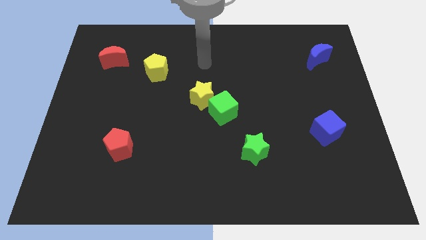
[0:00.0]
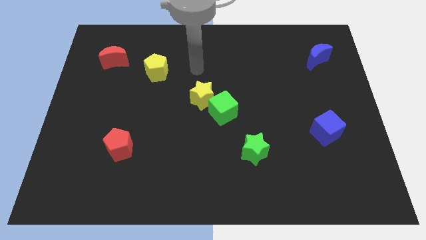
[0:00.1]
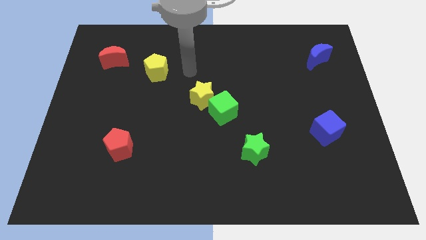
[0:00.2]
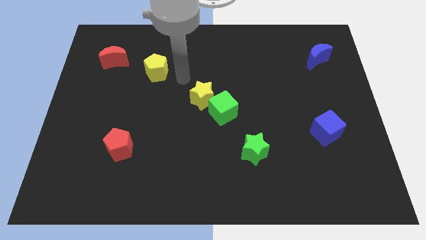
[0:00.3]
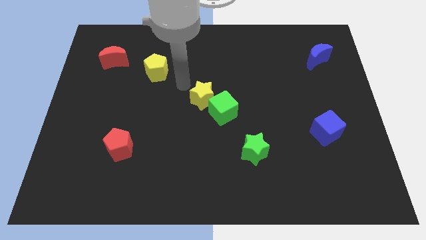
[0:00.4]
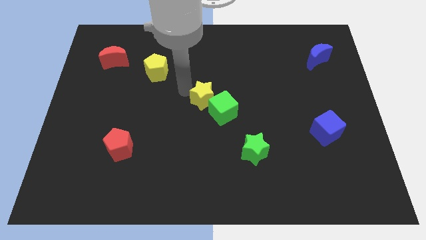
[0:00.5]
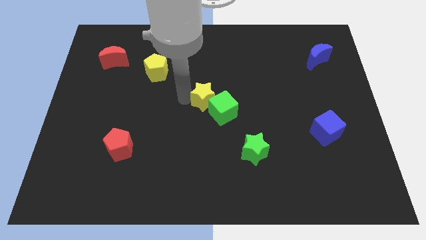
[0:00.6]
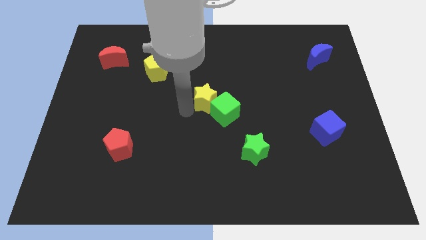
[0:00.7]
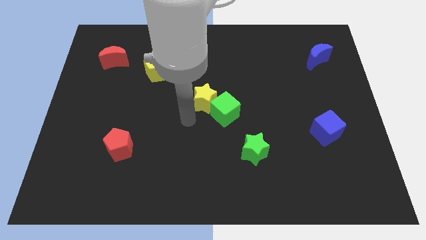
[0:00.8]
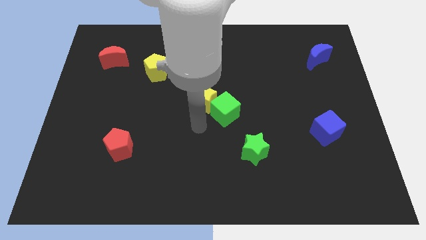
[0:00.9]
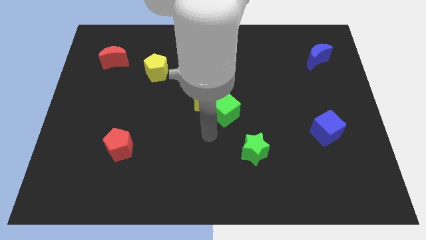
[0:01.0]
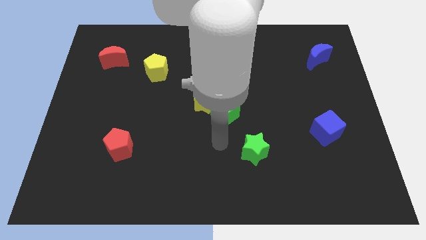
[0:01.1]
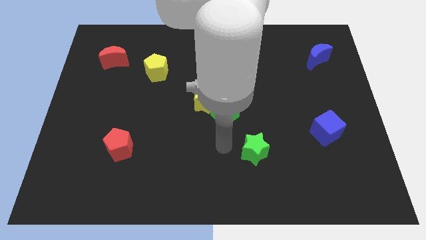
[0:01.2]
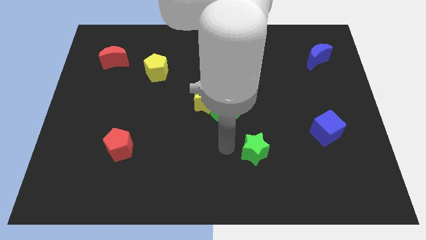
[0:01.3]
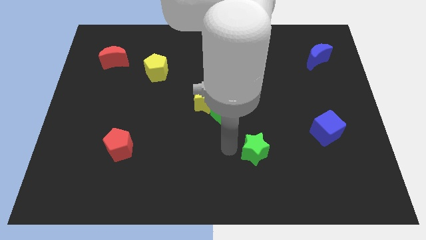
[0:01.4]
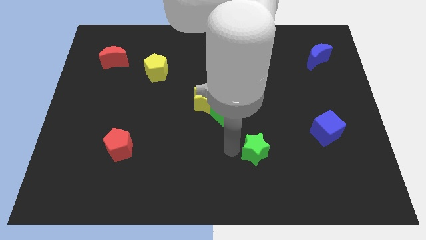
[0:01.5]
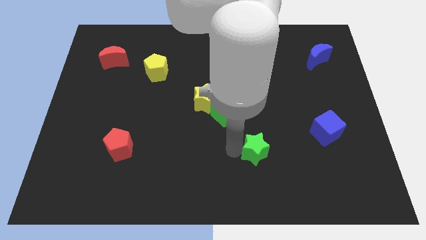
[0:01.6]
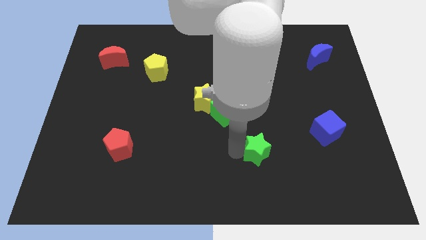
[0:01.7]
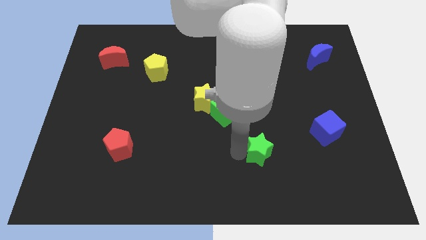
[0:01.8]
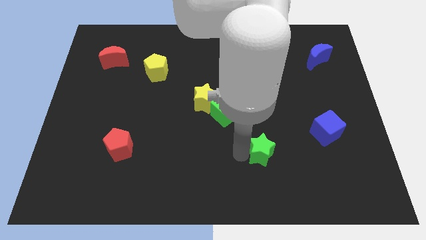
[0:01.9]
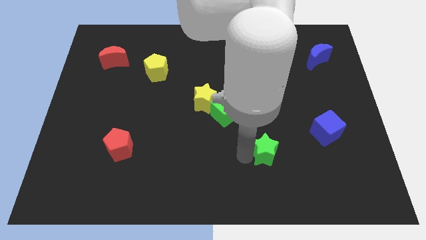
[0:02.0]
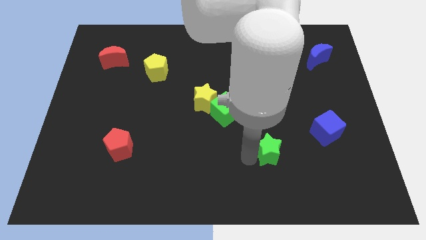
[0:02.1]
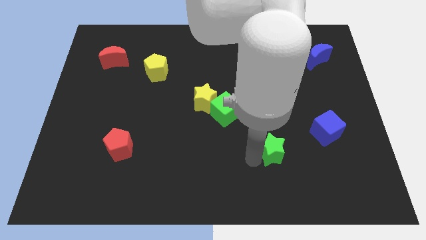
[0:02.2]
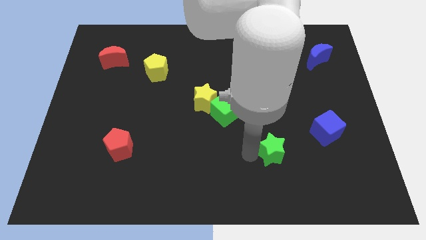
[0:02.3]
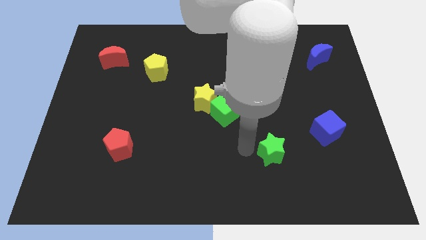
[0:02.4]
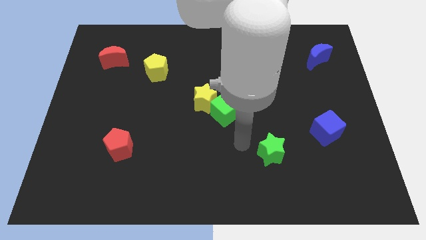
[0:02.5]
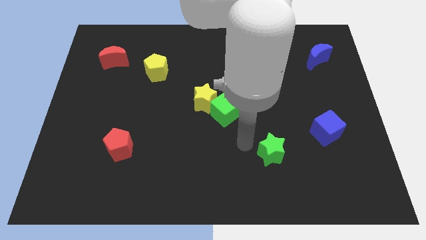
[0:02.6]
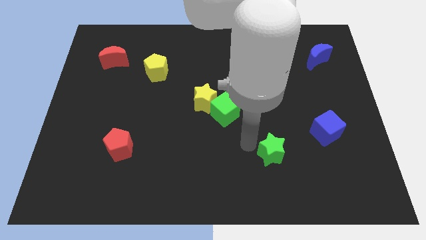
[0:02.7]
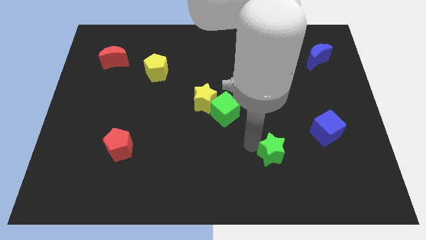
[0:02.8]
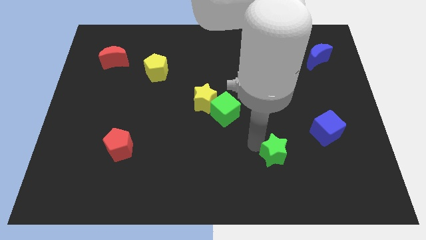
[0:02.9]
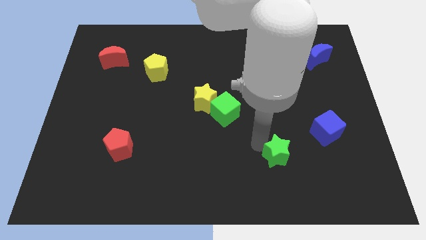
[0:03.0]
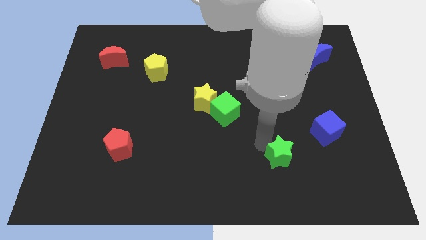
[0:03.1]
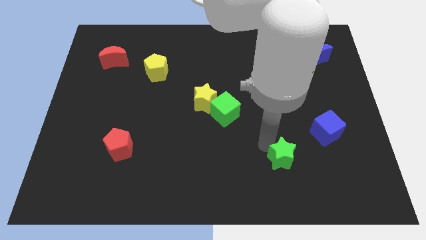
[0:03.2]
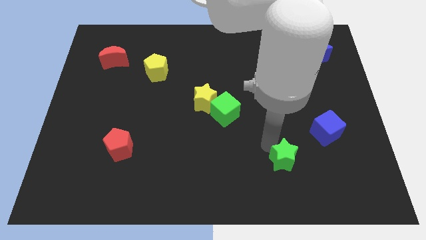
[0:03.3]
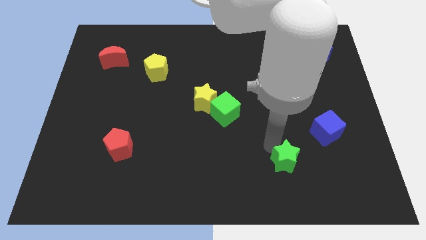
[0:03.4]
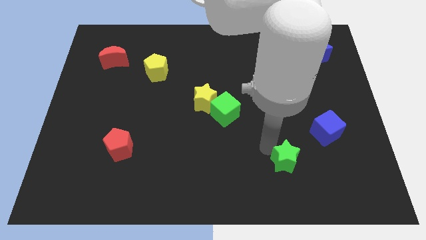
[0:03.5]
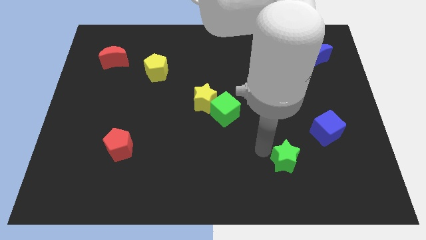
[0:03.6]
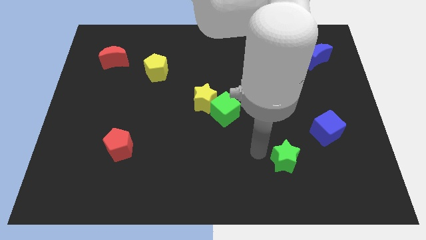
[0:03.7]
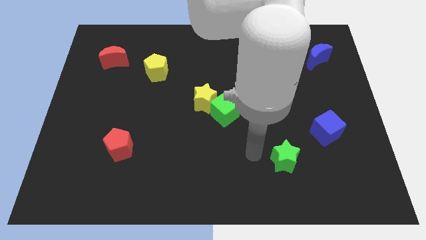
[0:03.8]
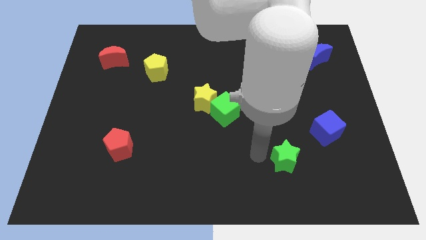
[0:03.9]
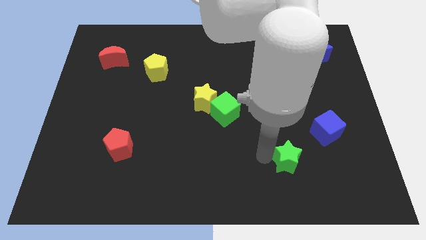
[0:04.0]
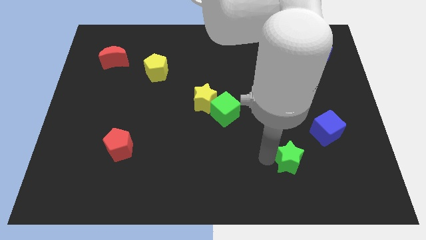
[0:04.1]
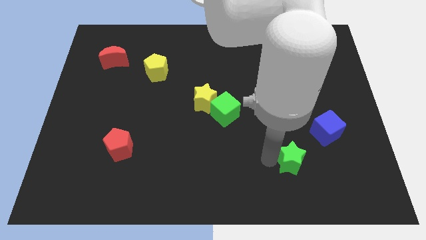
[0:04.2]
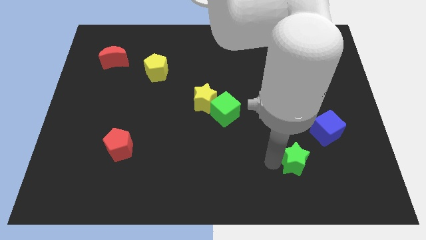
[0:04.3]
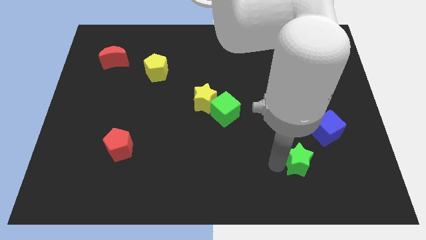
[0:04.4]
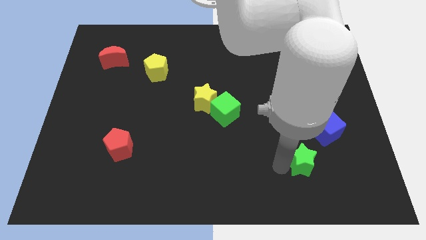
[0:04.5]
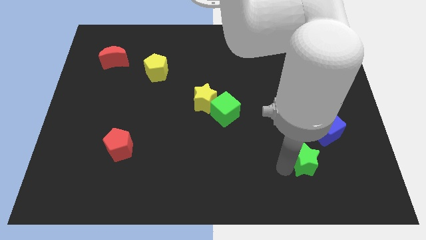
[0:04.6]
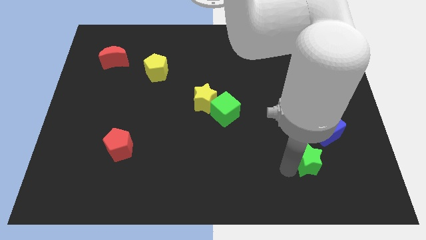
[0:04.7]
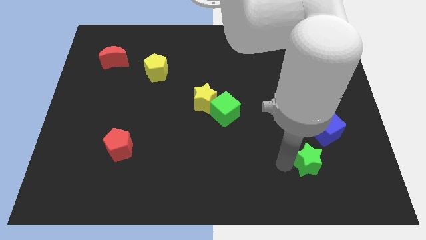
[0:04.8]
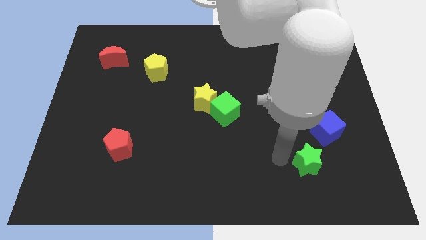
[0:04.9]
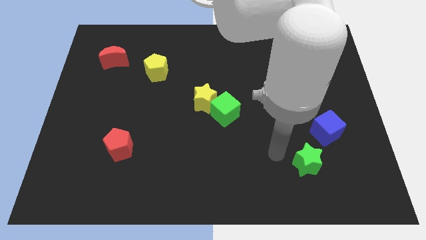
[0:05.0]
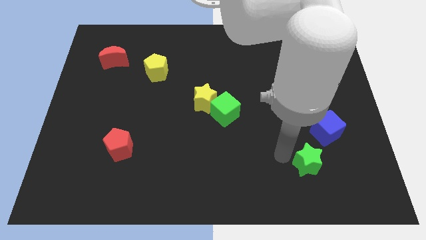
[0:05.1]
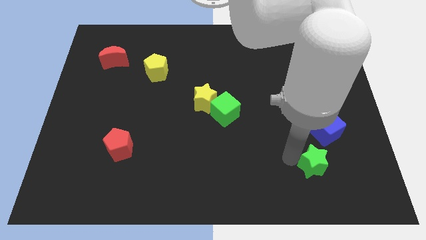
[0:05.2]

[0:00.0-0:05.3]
put the green star below the blue cube

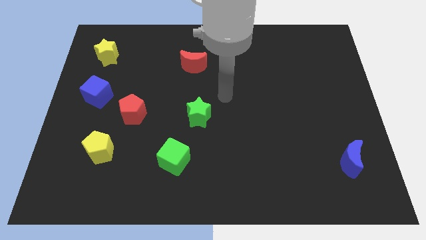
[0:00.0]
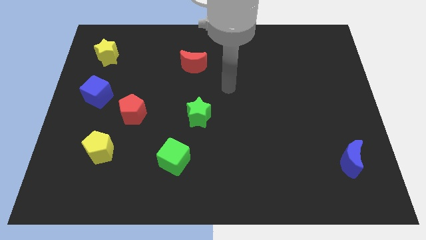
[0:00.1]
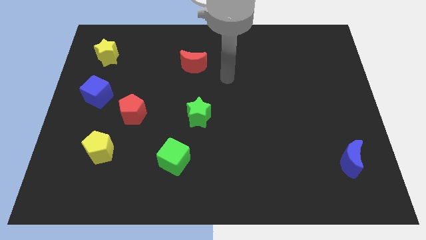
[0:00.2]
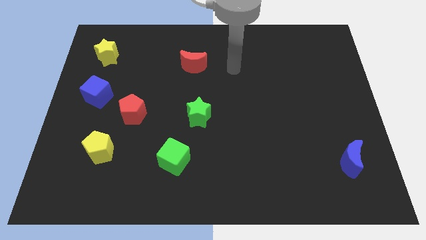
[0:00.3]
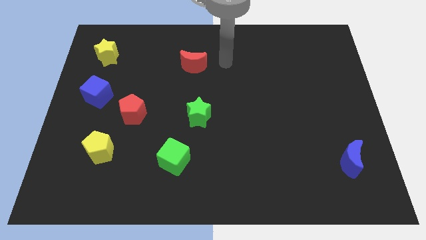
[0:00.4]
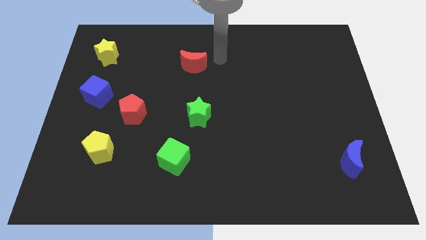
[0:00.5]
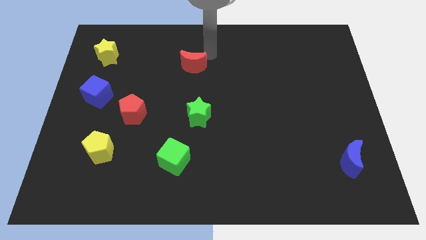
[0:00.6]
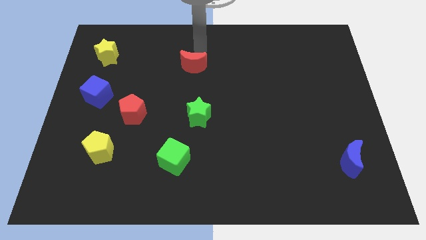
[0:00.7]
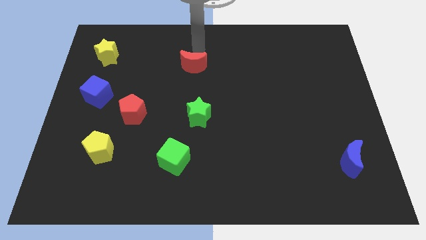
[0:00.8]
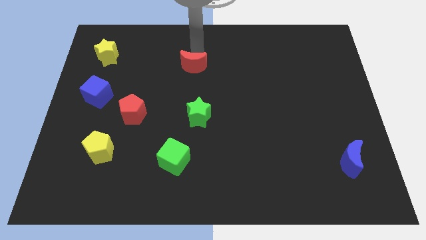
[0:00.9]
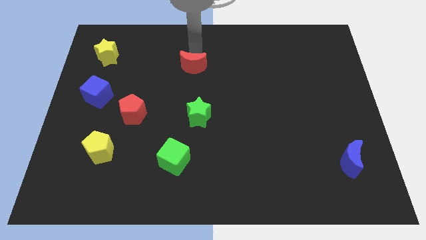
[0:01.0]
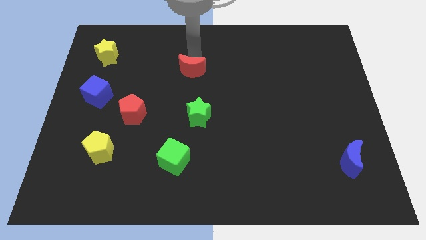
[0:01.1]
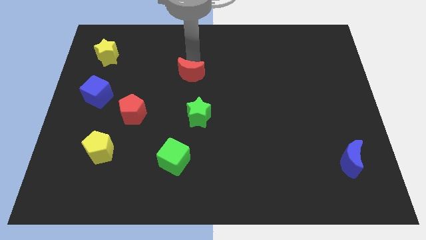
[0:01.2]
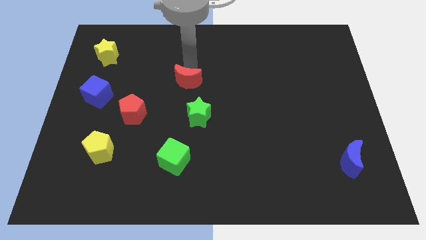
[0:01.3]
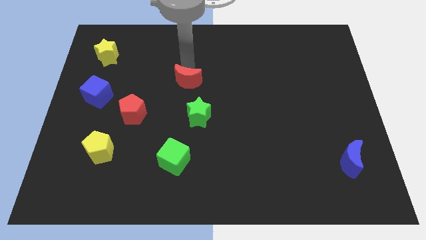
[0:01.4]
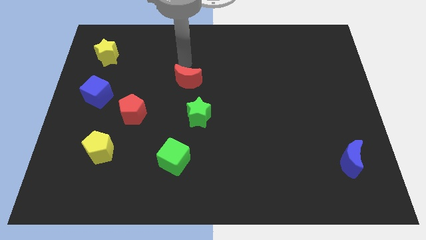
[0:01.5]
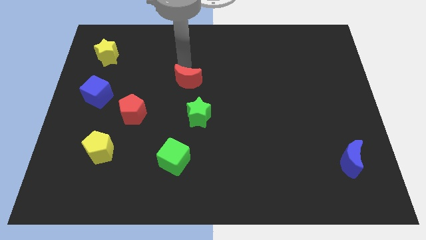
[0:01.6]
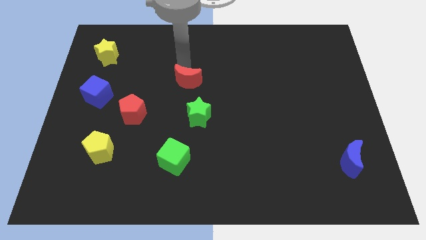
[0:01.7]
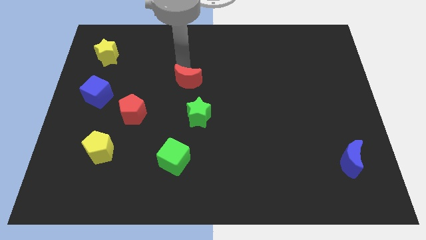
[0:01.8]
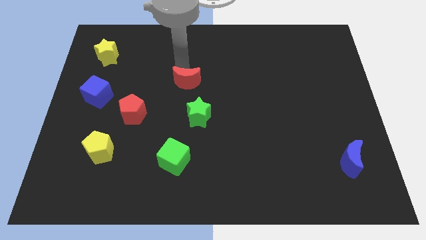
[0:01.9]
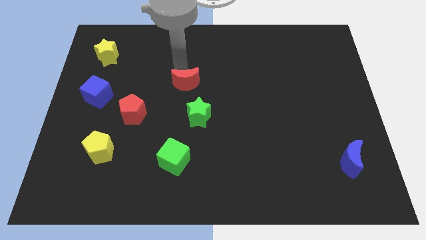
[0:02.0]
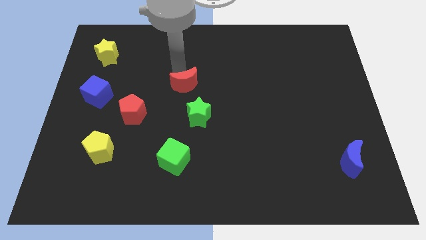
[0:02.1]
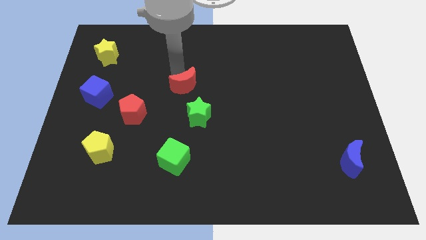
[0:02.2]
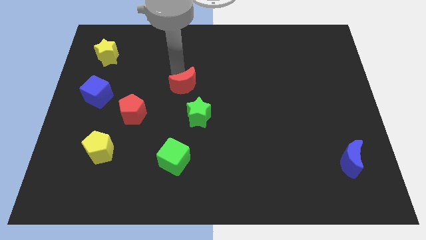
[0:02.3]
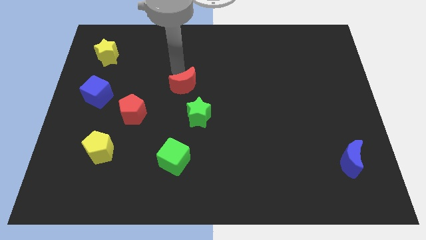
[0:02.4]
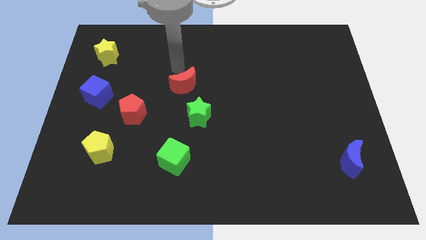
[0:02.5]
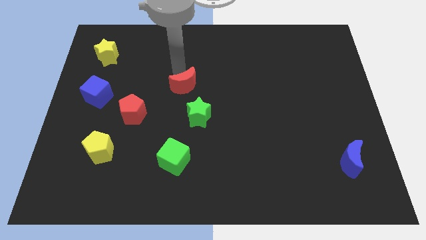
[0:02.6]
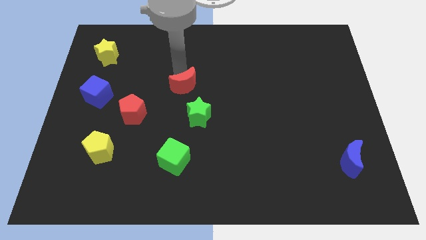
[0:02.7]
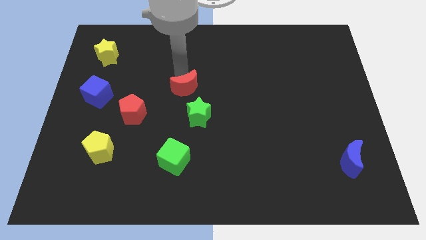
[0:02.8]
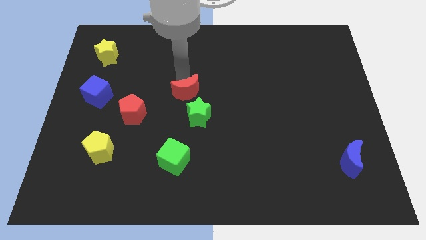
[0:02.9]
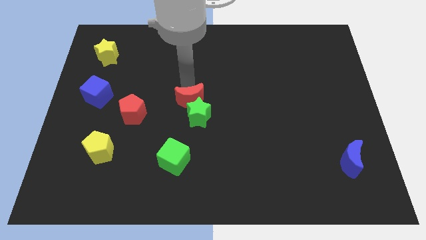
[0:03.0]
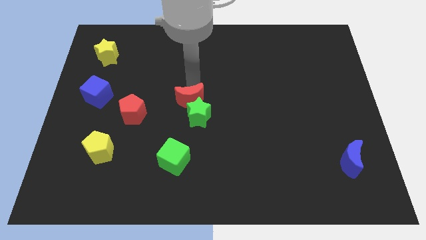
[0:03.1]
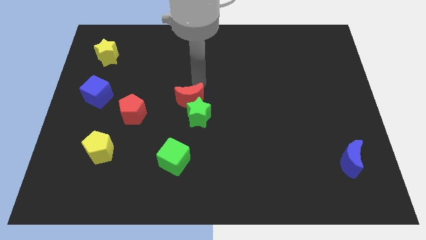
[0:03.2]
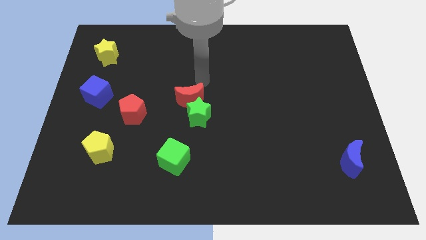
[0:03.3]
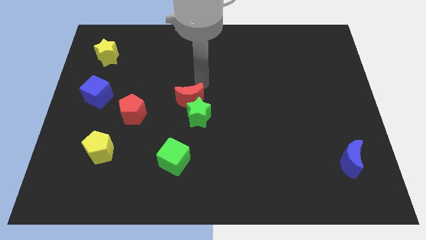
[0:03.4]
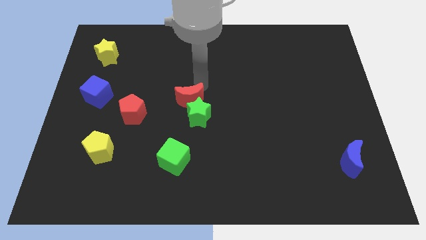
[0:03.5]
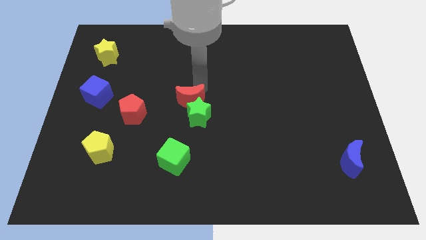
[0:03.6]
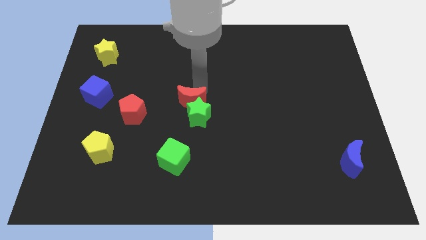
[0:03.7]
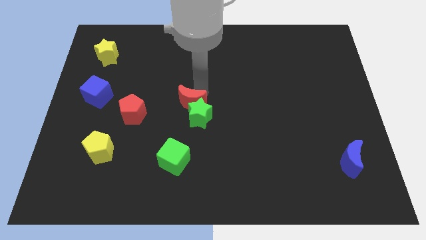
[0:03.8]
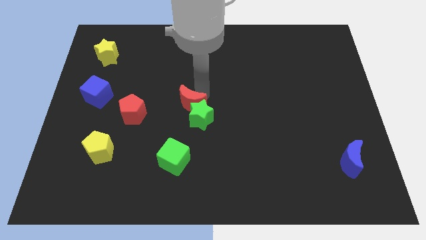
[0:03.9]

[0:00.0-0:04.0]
move the red moon to the top of the green cube
